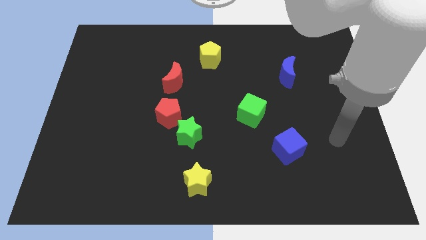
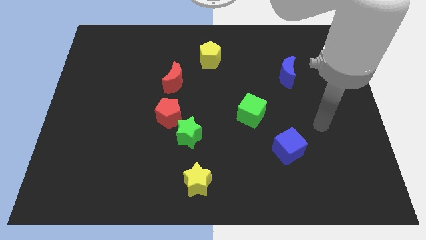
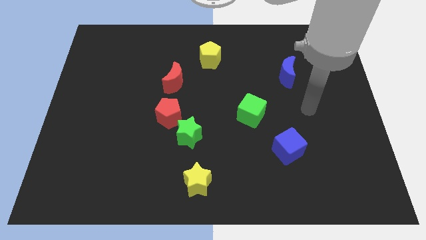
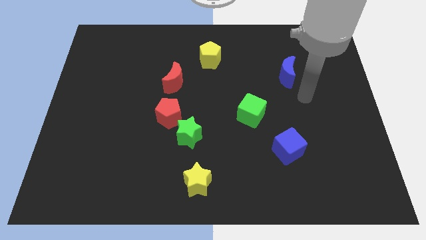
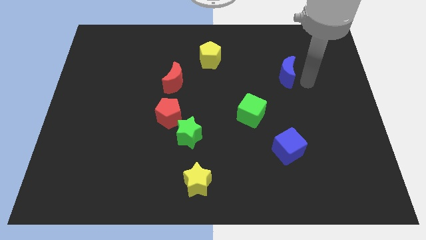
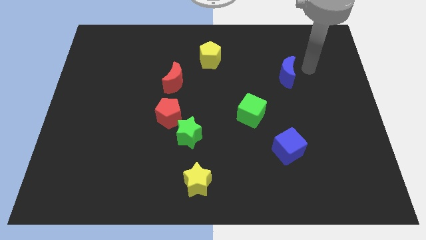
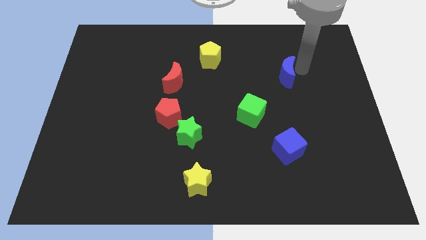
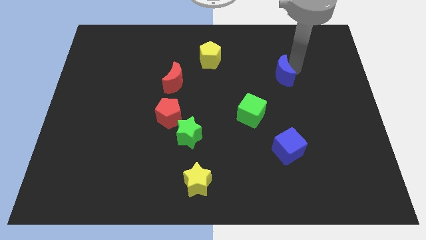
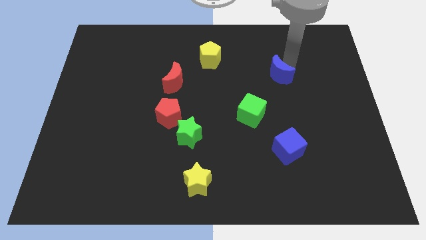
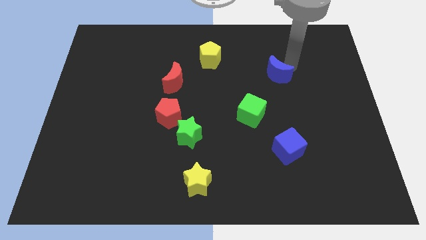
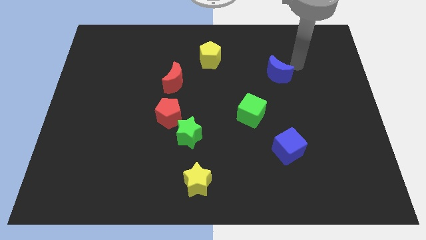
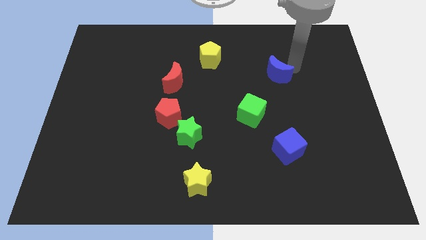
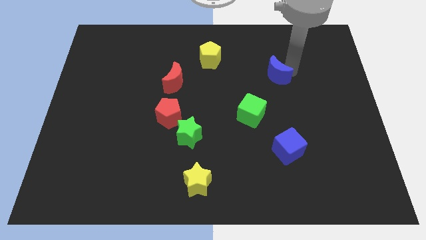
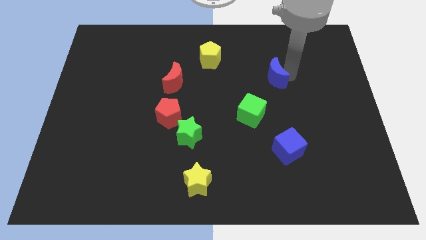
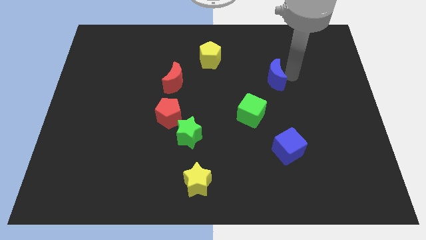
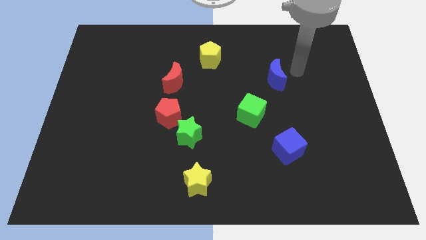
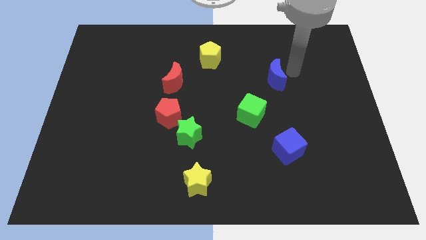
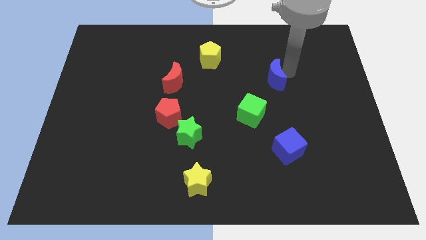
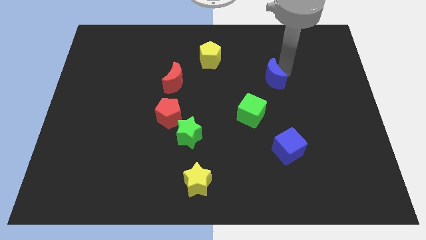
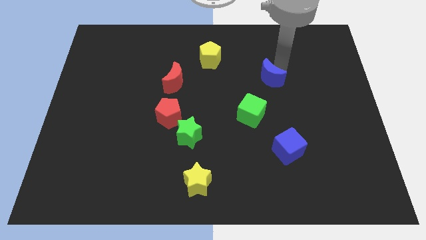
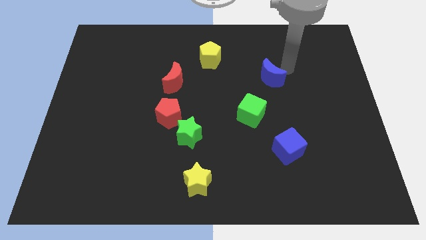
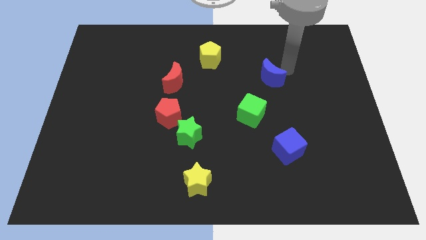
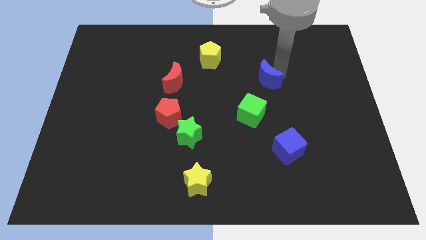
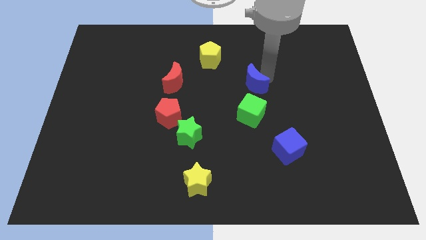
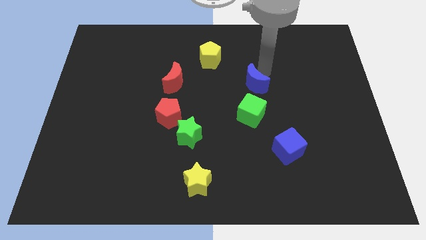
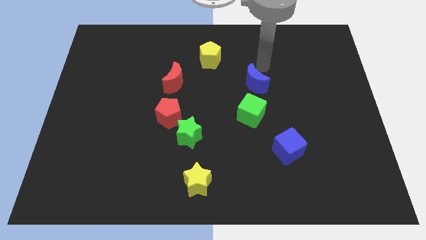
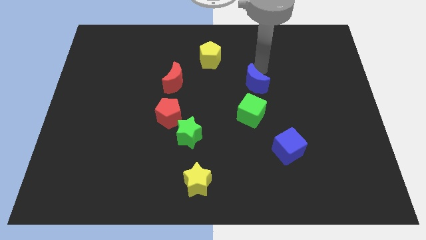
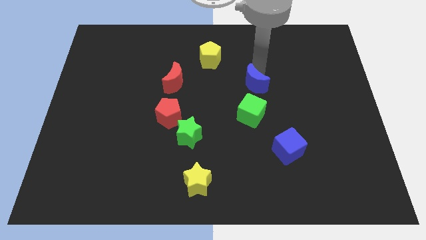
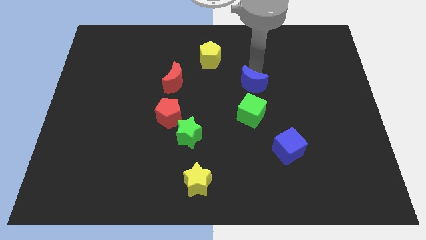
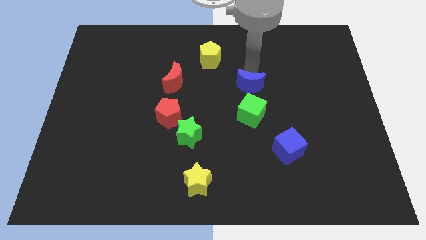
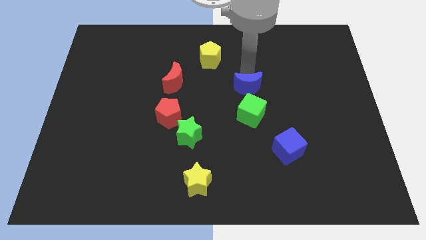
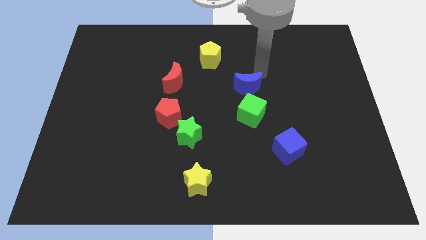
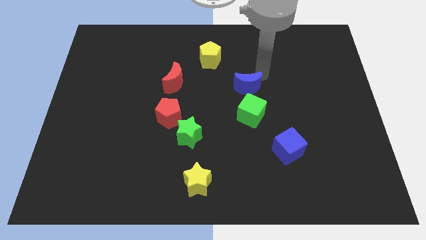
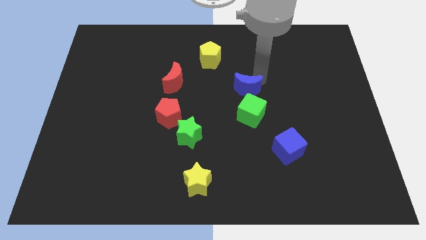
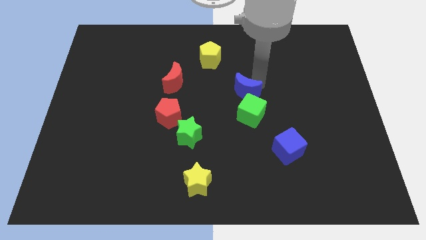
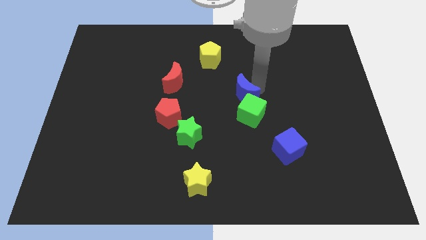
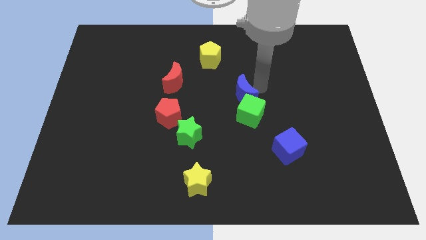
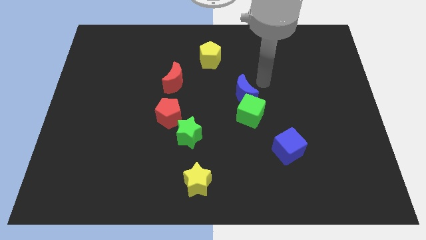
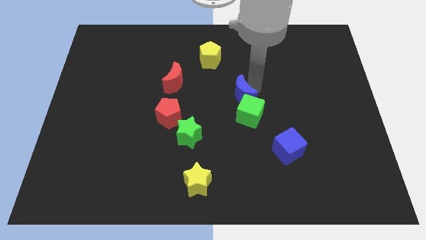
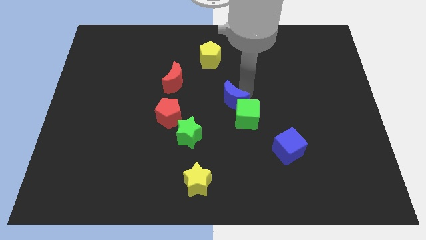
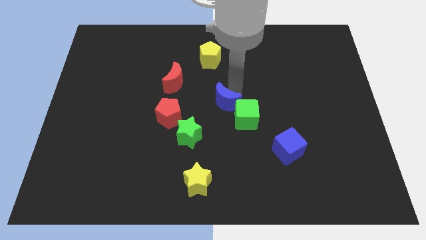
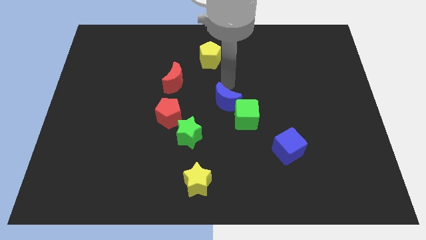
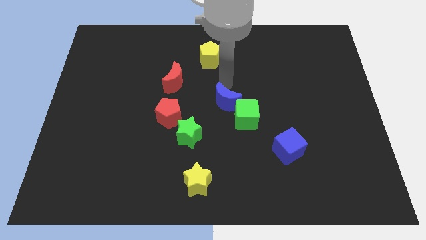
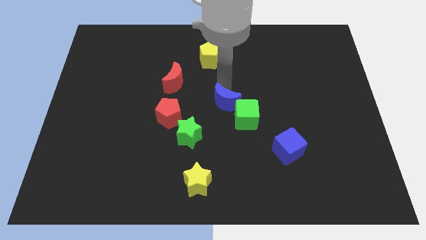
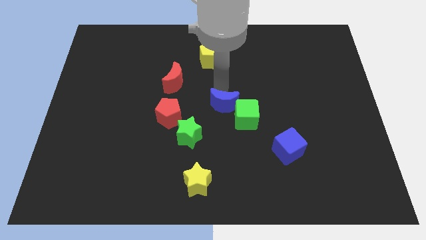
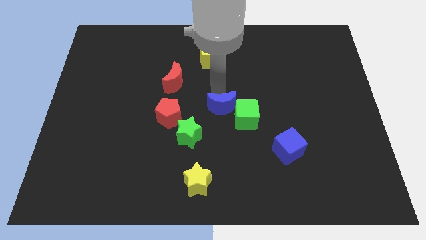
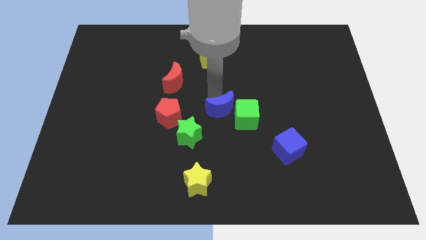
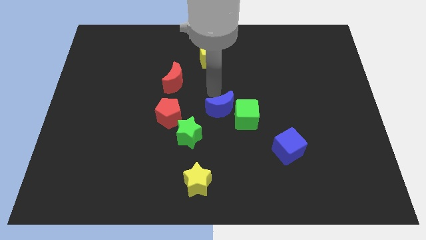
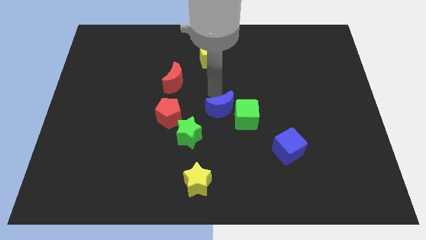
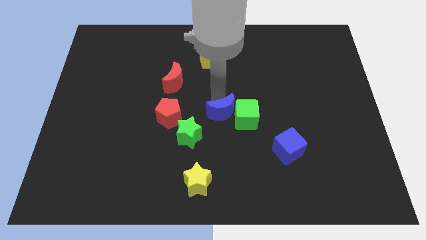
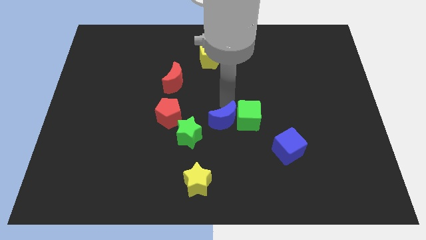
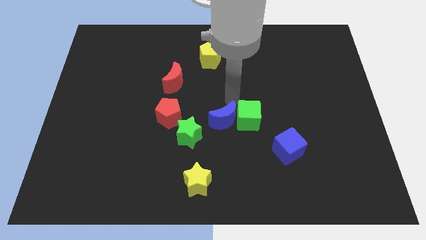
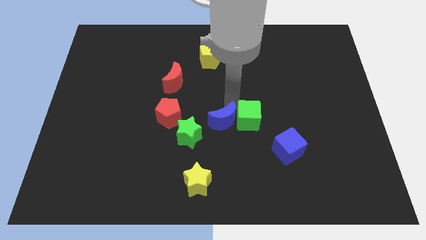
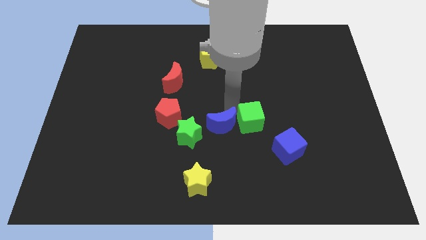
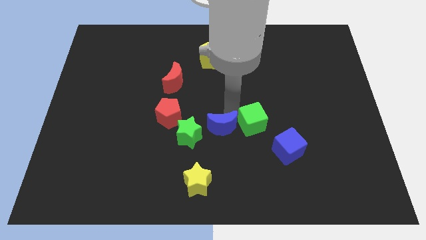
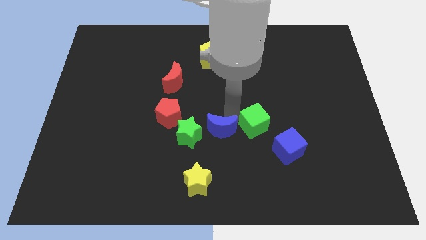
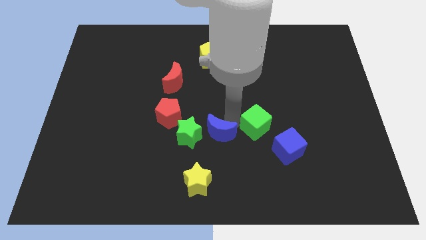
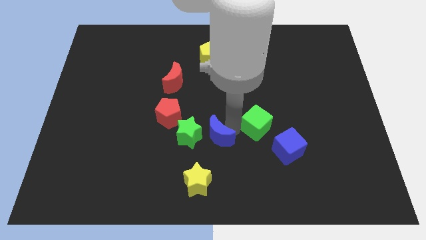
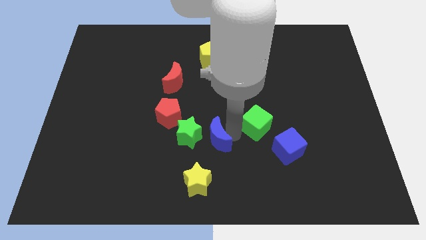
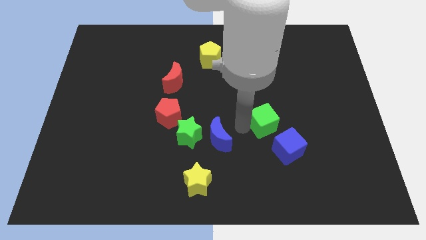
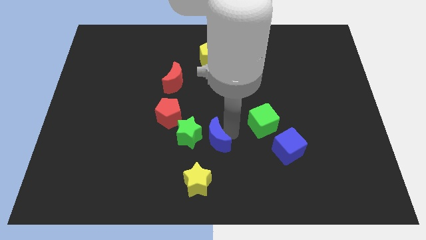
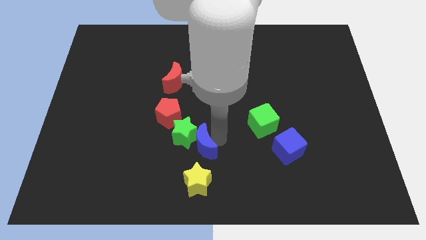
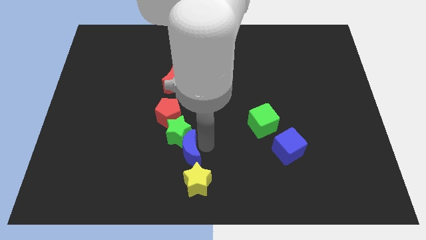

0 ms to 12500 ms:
push the blue moon diagonally up and to the left of the yellow star

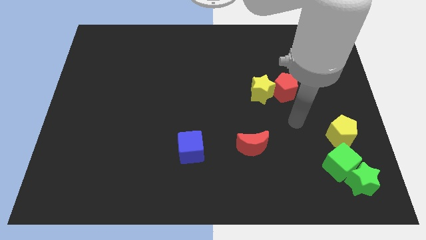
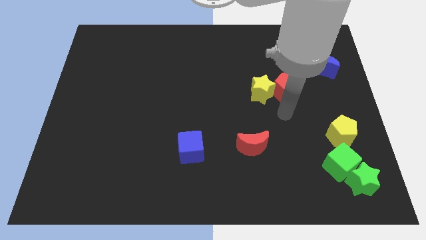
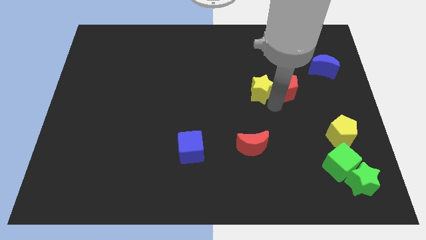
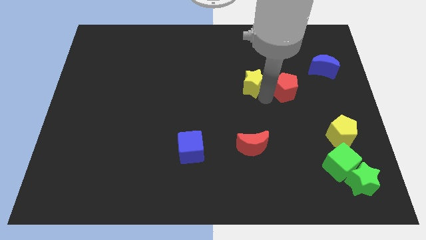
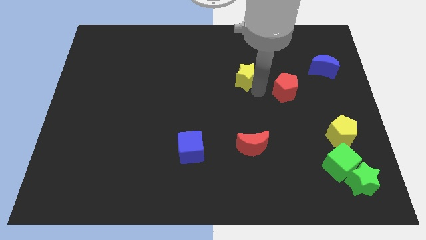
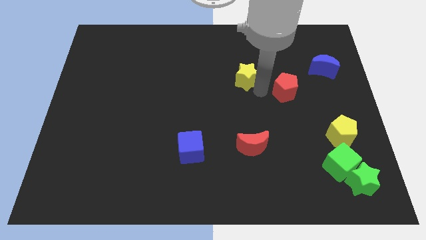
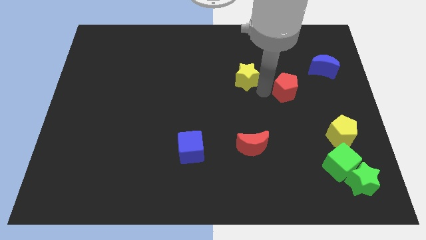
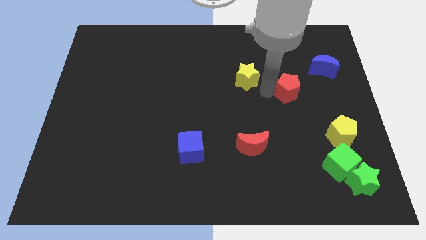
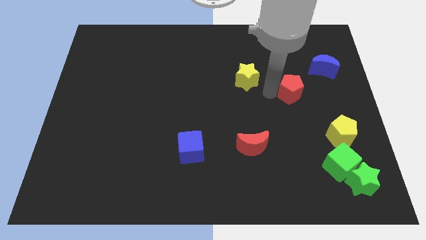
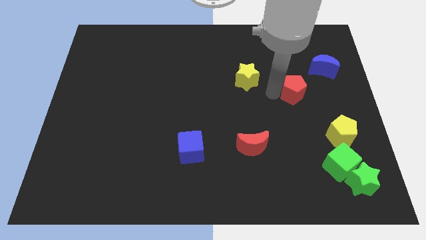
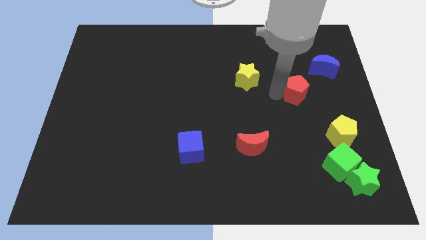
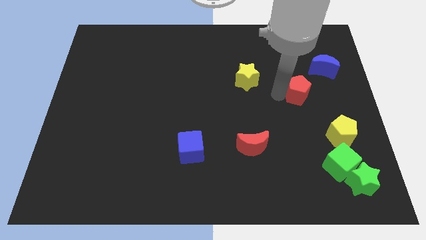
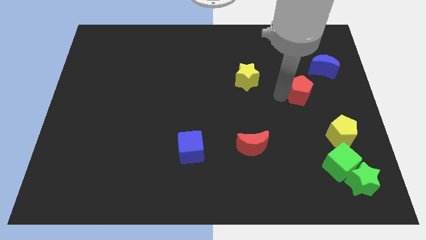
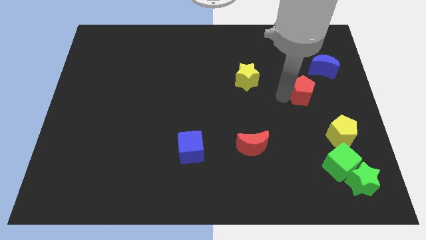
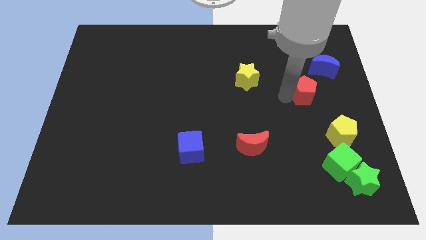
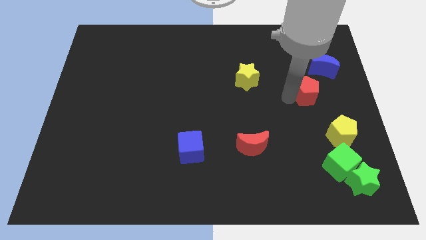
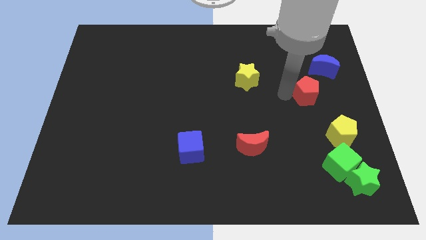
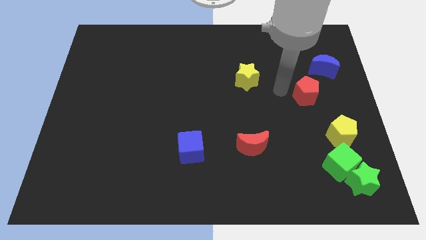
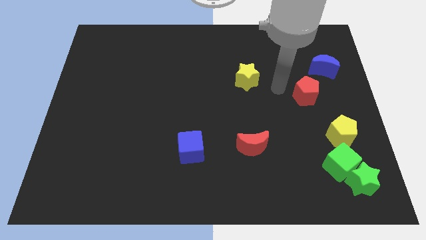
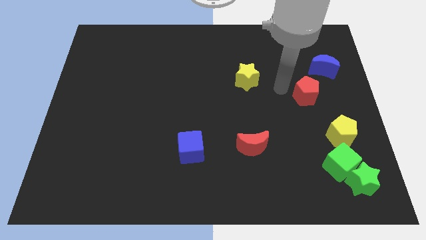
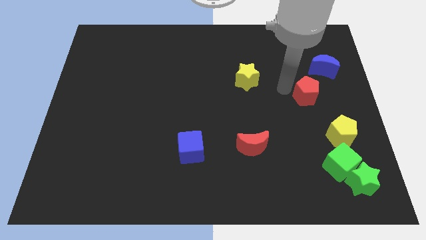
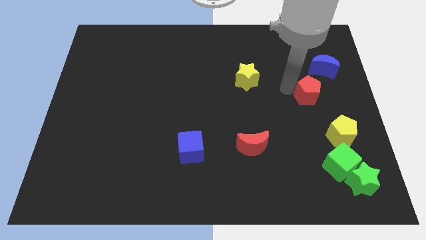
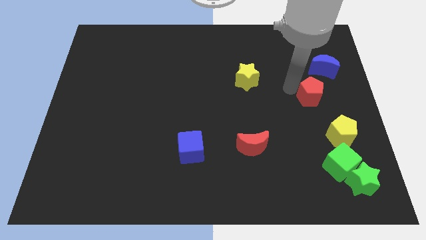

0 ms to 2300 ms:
push the red pentagon to the bottom side of the blue moon
